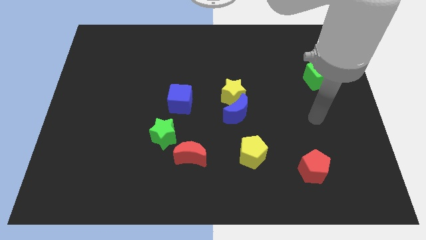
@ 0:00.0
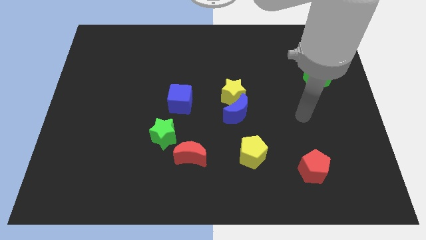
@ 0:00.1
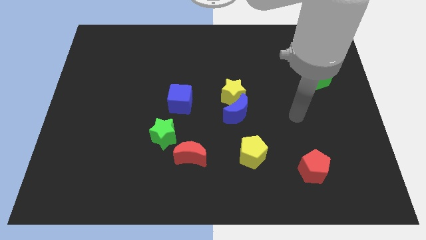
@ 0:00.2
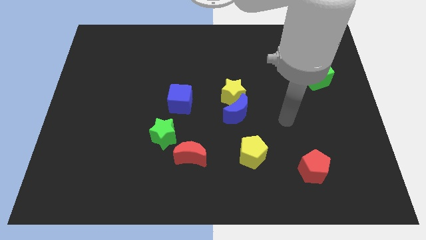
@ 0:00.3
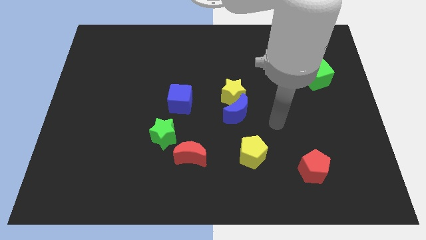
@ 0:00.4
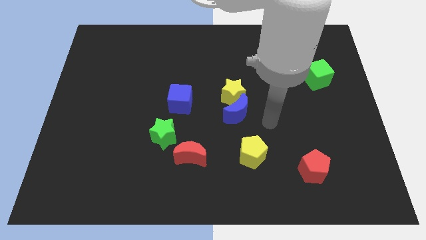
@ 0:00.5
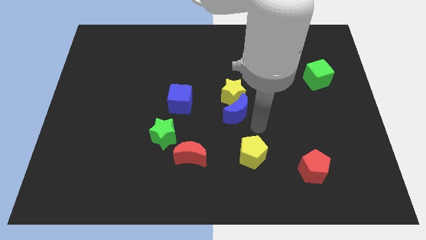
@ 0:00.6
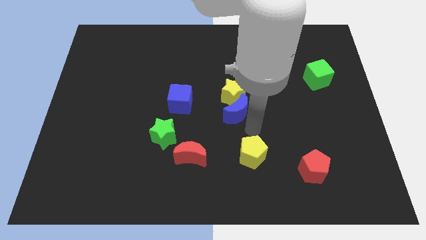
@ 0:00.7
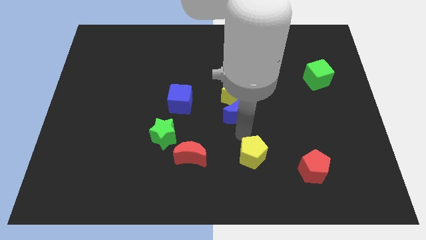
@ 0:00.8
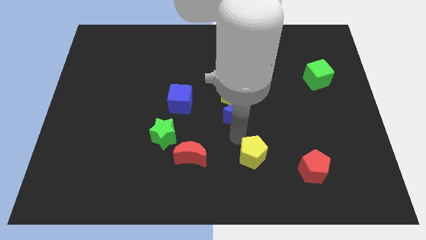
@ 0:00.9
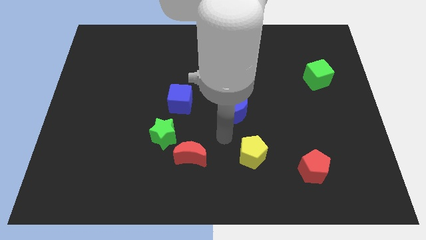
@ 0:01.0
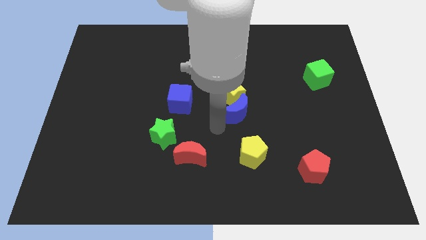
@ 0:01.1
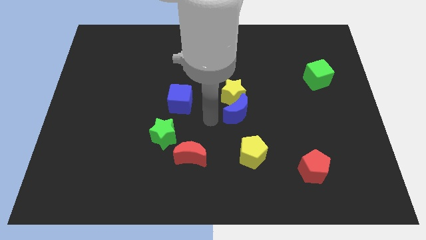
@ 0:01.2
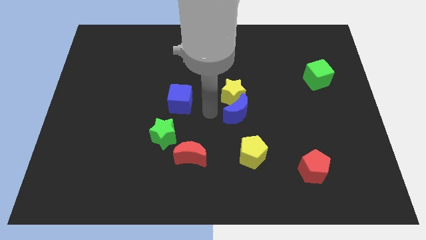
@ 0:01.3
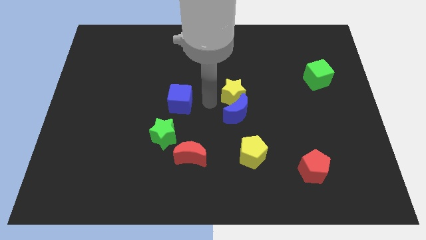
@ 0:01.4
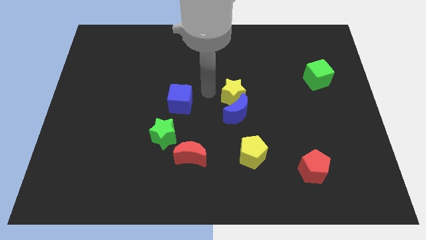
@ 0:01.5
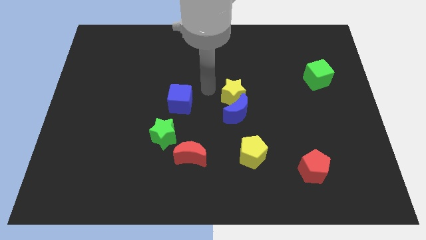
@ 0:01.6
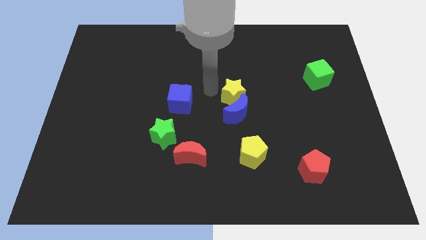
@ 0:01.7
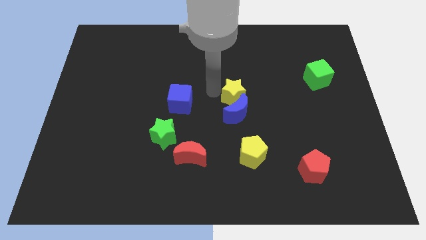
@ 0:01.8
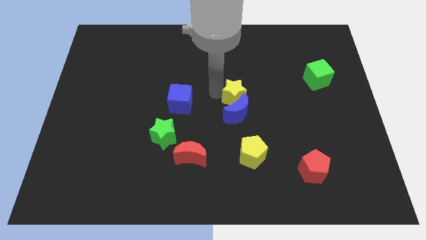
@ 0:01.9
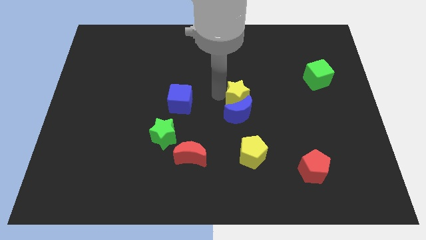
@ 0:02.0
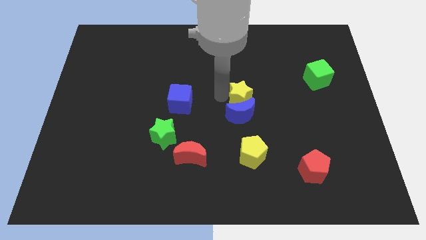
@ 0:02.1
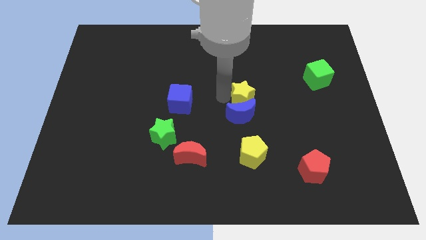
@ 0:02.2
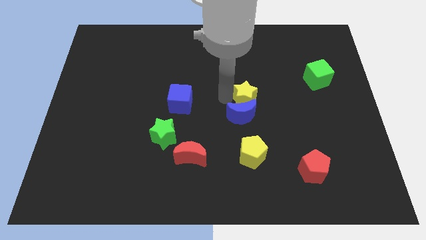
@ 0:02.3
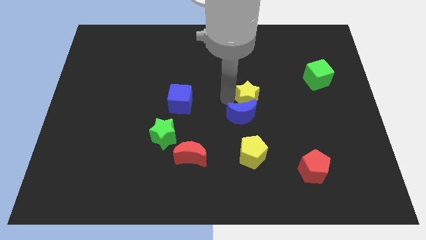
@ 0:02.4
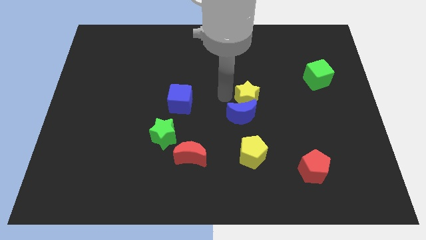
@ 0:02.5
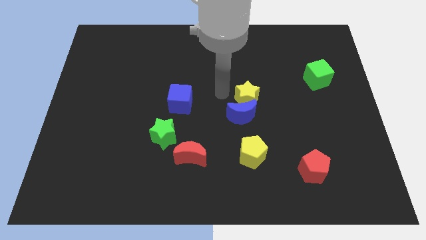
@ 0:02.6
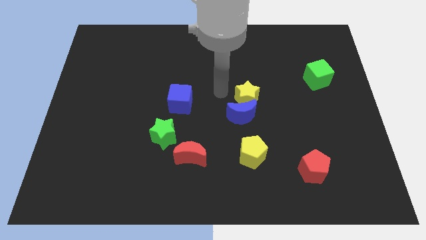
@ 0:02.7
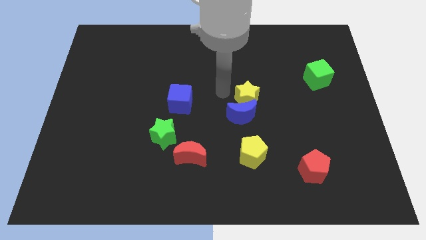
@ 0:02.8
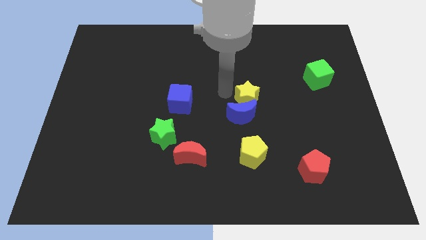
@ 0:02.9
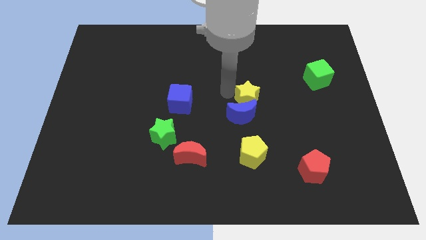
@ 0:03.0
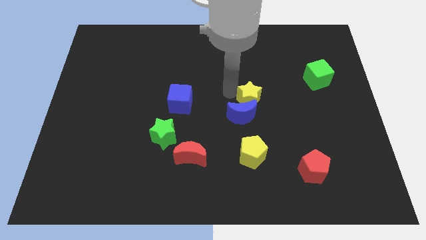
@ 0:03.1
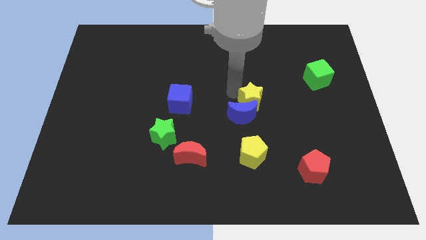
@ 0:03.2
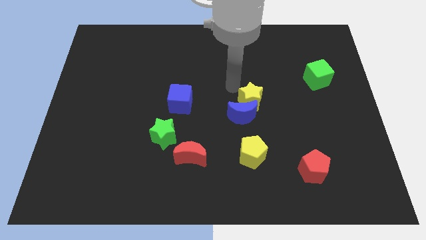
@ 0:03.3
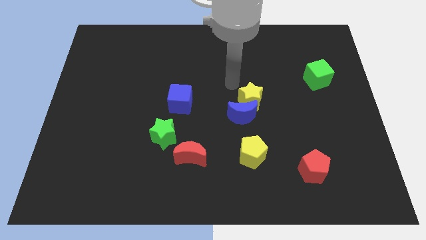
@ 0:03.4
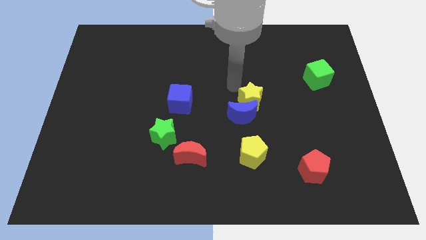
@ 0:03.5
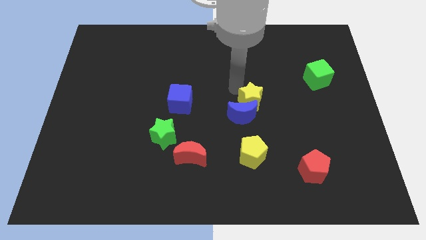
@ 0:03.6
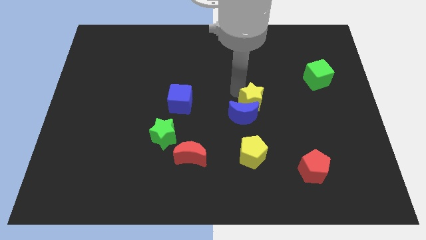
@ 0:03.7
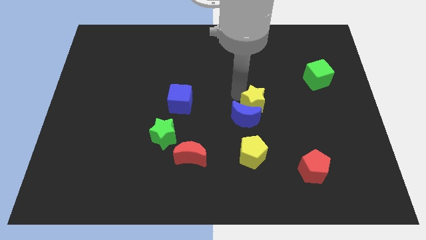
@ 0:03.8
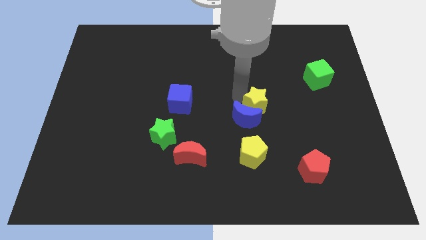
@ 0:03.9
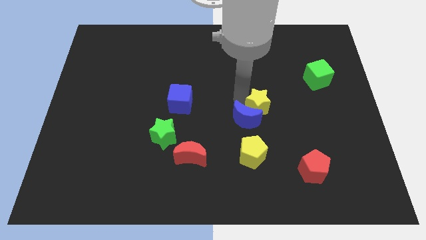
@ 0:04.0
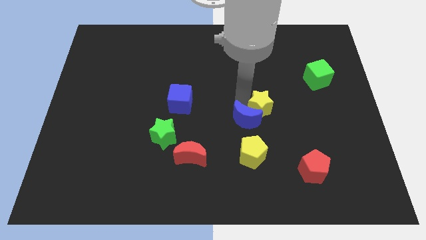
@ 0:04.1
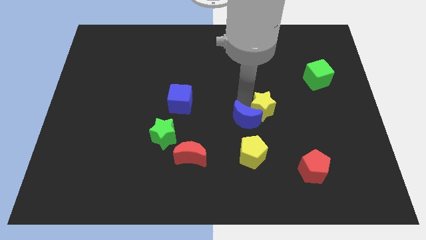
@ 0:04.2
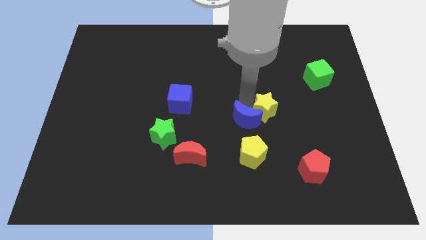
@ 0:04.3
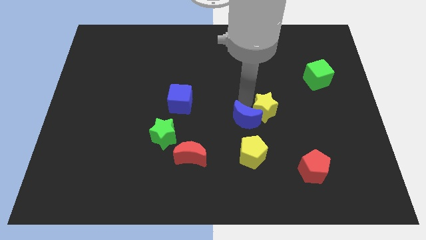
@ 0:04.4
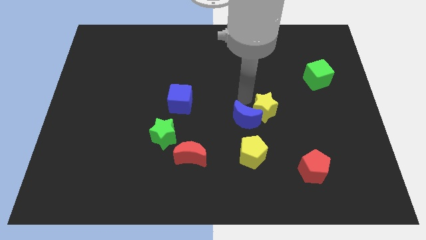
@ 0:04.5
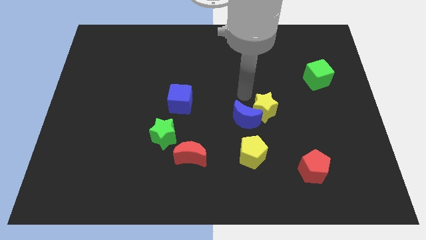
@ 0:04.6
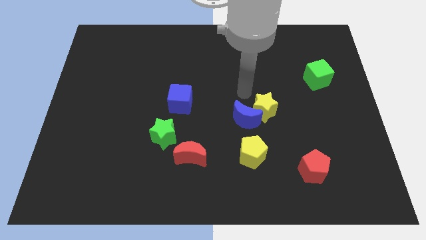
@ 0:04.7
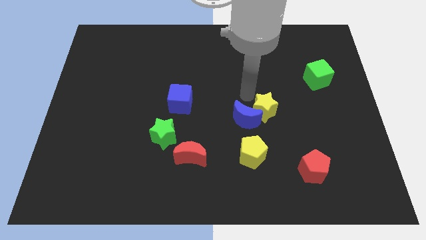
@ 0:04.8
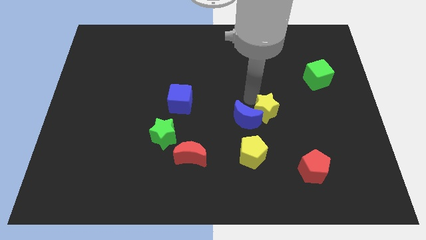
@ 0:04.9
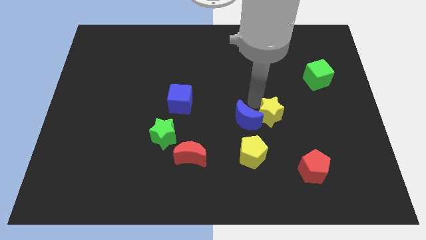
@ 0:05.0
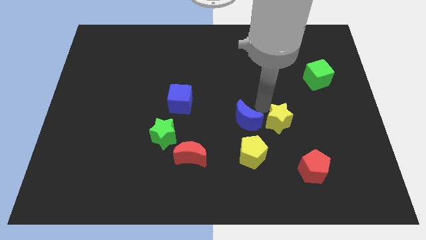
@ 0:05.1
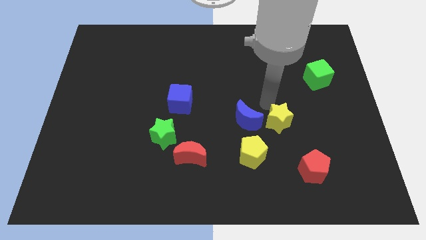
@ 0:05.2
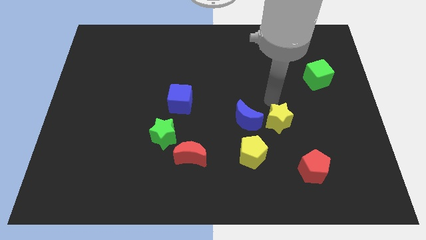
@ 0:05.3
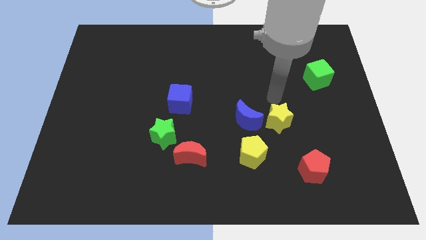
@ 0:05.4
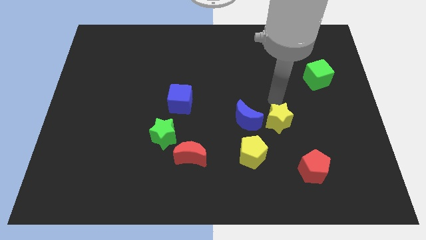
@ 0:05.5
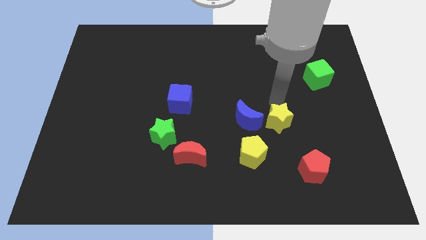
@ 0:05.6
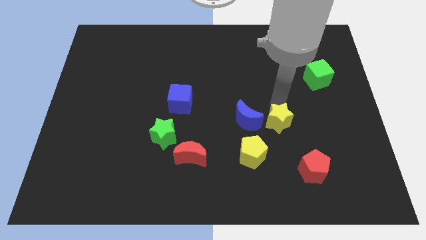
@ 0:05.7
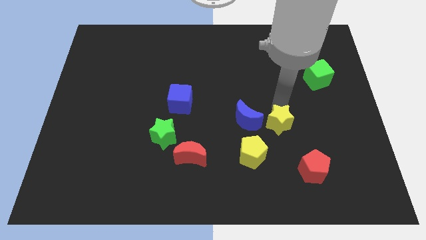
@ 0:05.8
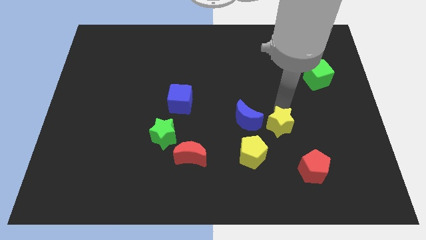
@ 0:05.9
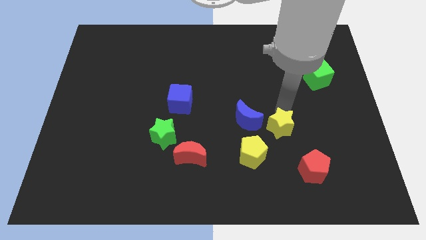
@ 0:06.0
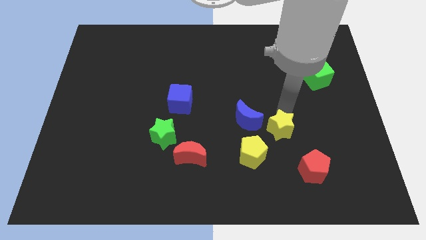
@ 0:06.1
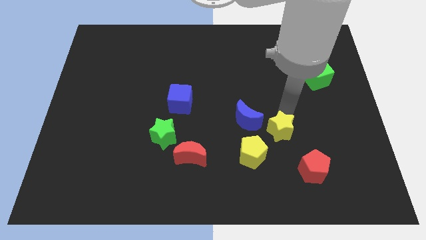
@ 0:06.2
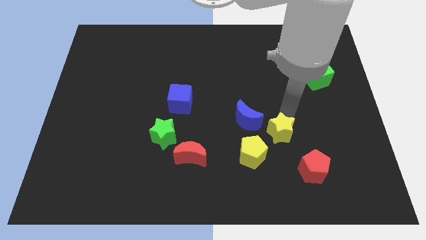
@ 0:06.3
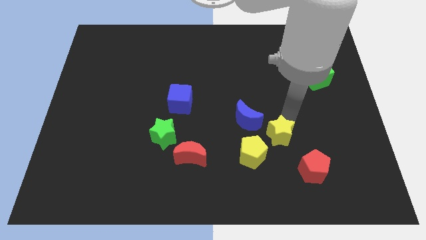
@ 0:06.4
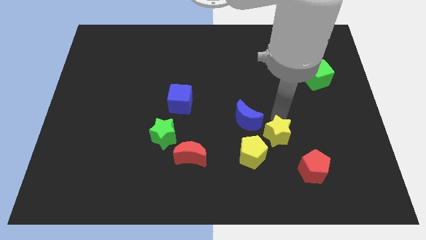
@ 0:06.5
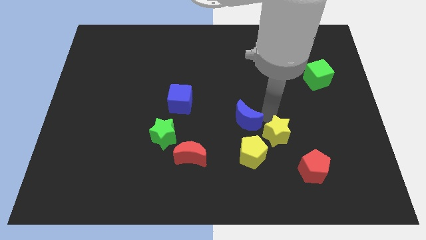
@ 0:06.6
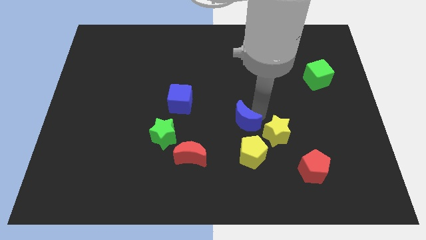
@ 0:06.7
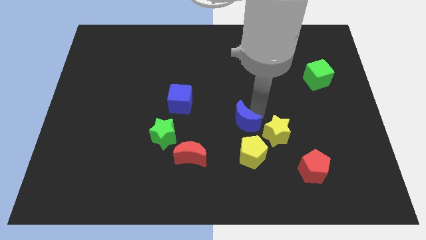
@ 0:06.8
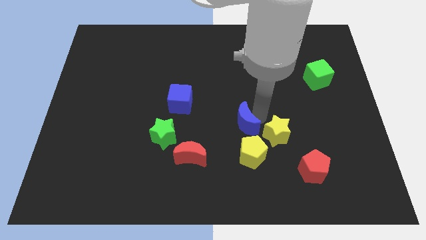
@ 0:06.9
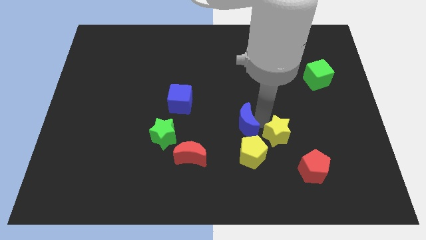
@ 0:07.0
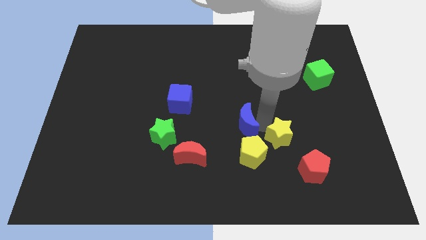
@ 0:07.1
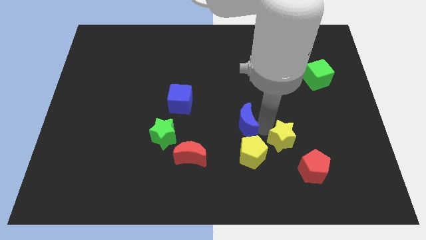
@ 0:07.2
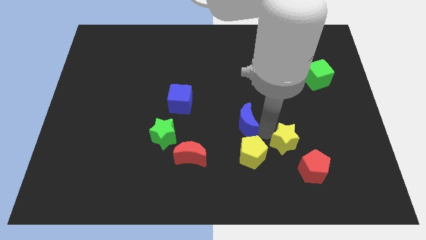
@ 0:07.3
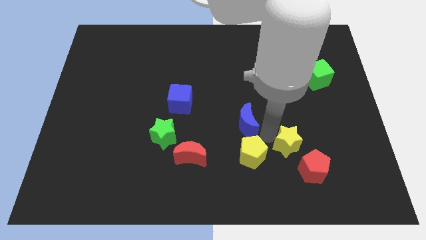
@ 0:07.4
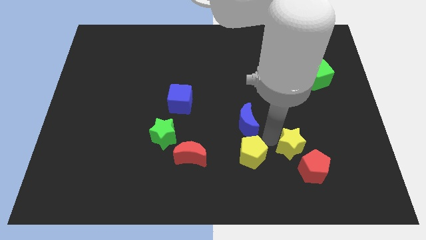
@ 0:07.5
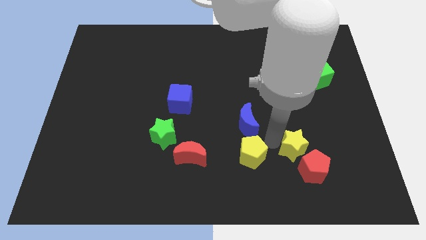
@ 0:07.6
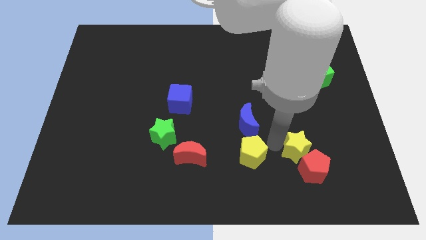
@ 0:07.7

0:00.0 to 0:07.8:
slide the yellow star close to the red pentagon
